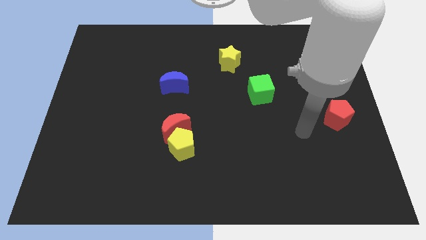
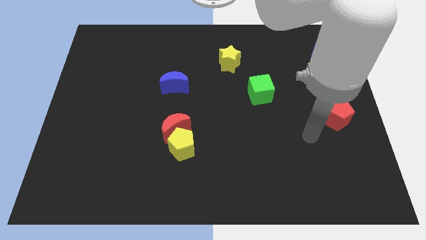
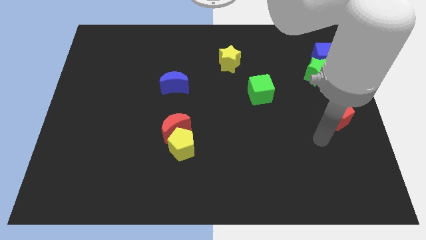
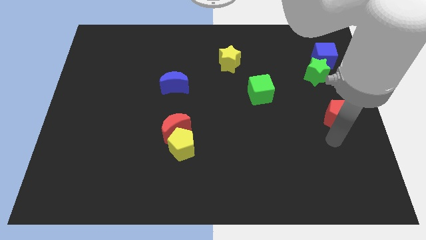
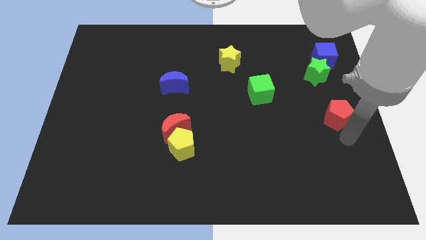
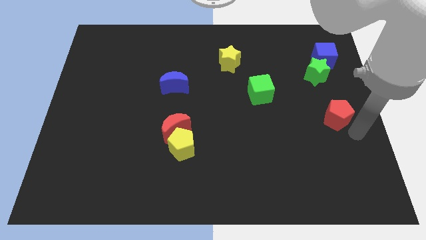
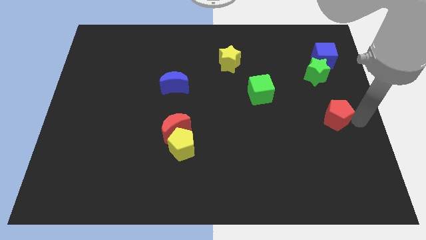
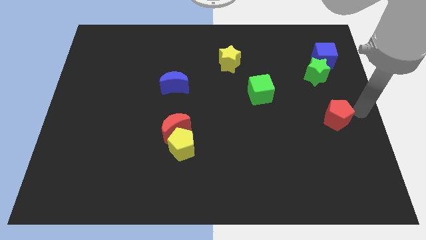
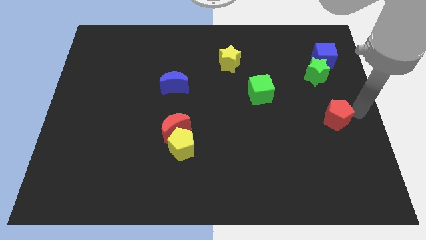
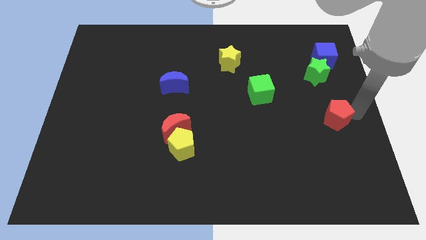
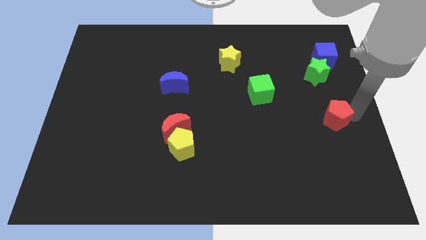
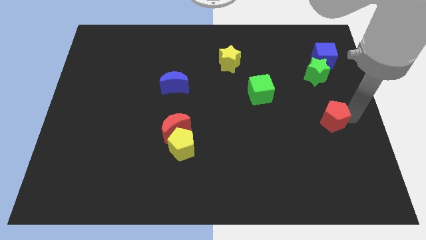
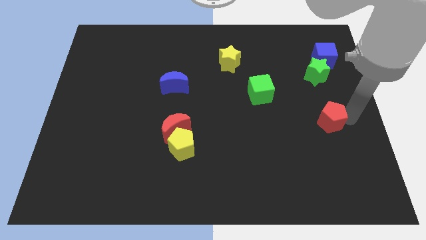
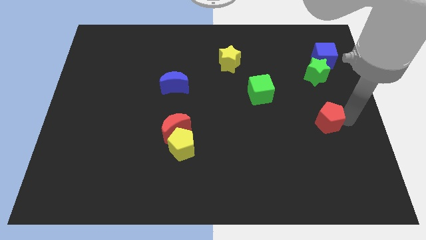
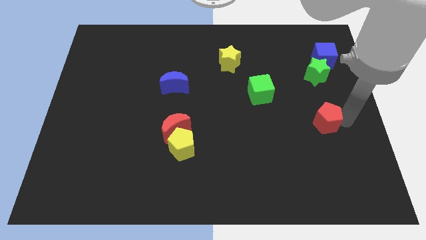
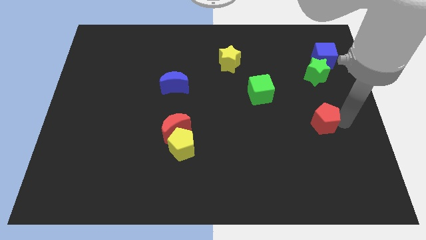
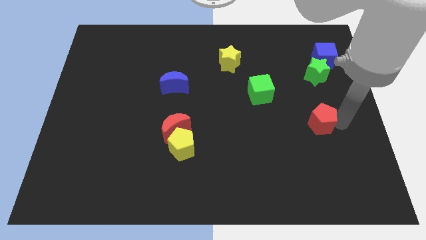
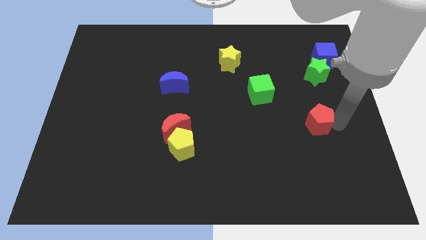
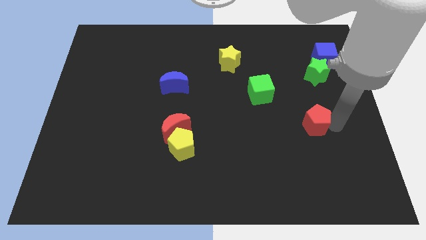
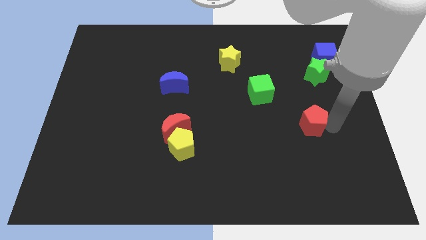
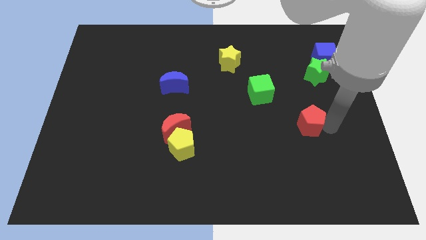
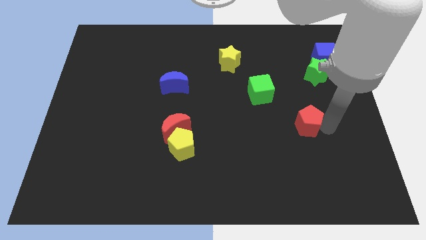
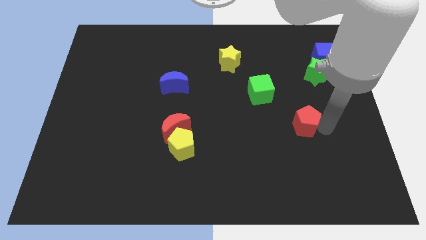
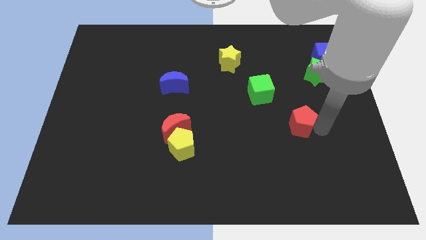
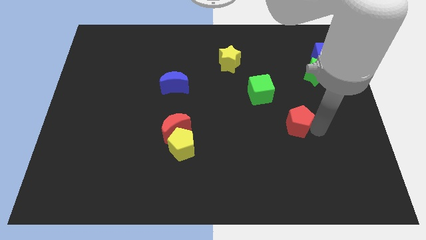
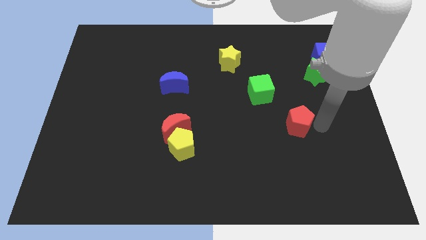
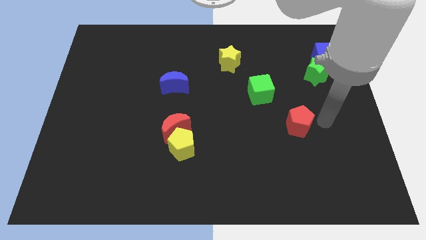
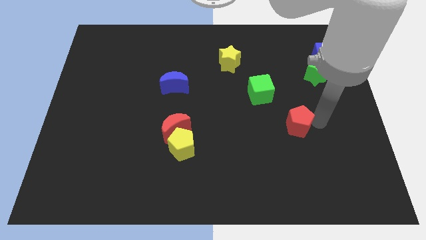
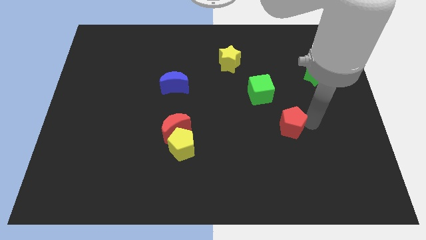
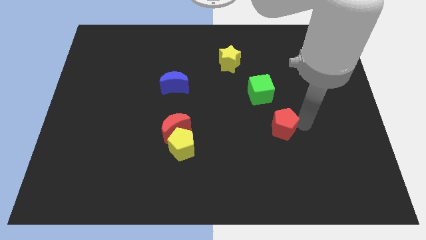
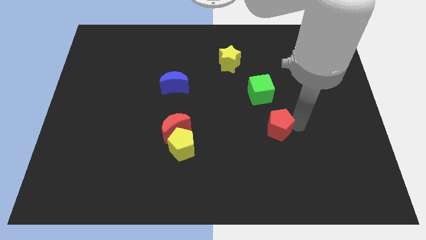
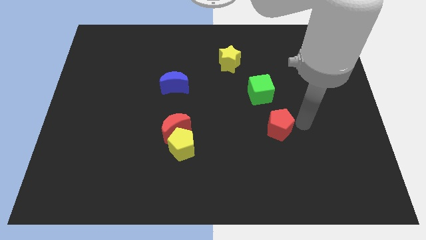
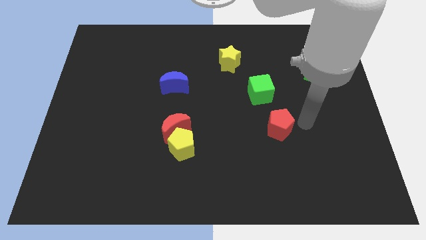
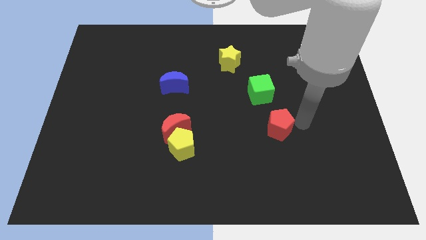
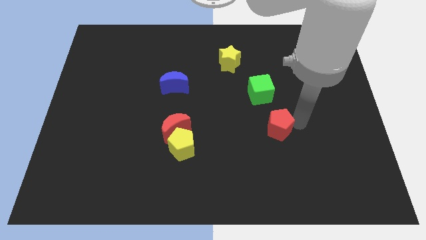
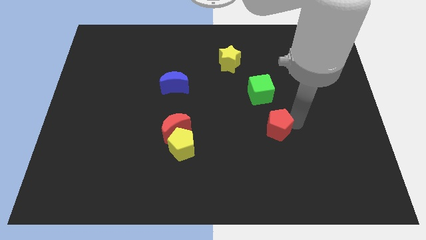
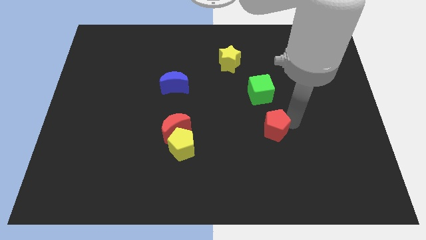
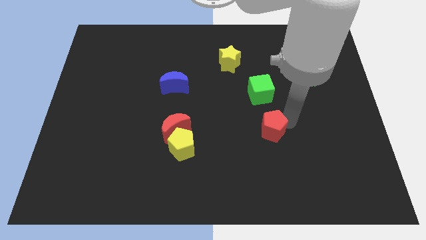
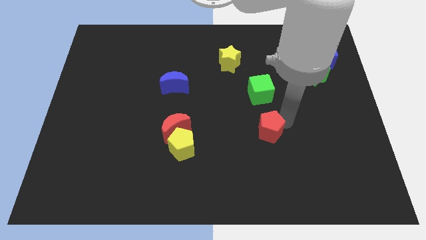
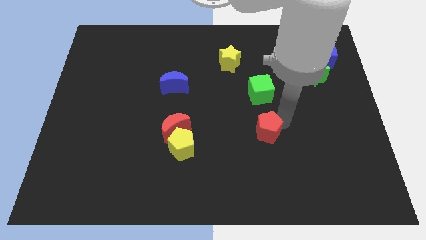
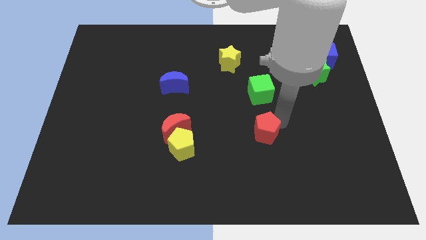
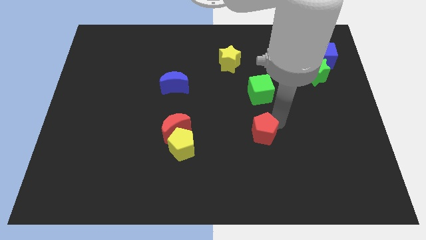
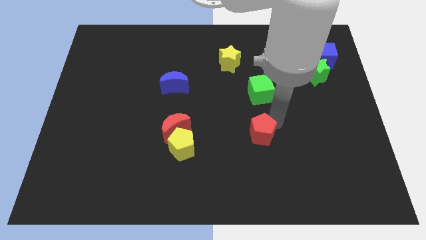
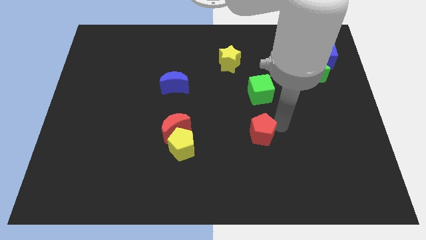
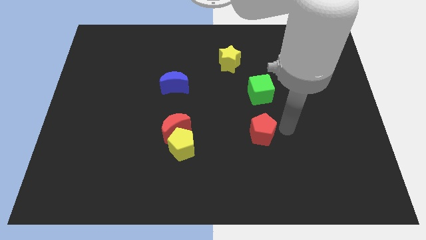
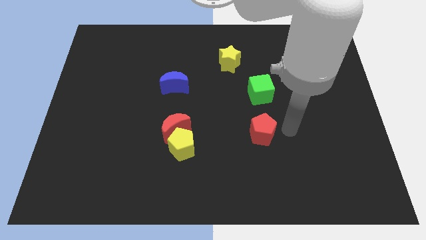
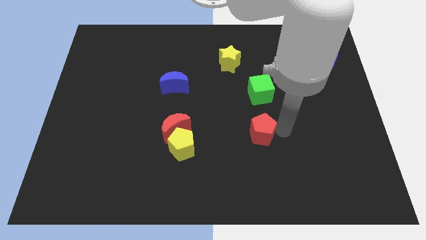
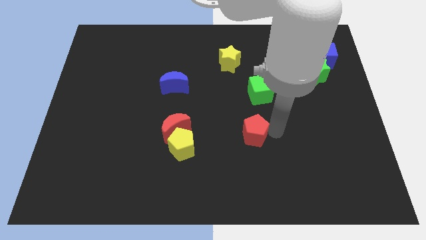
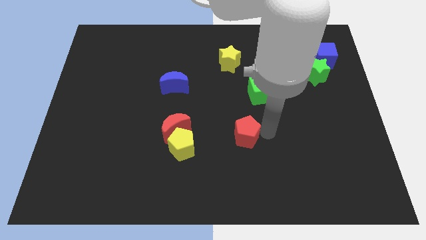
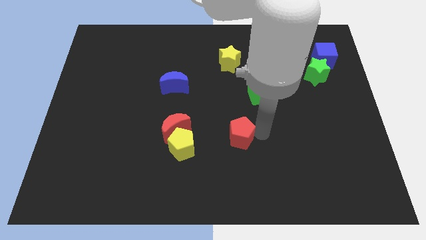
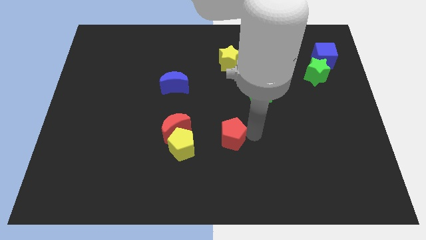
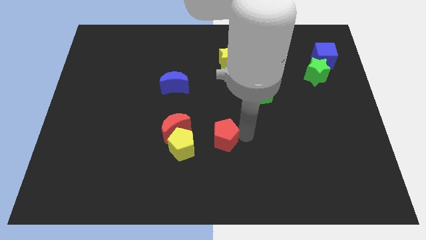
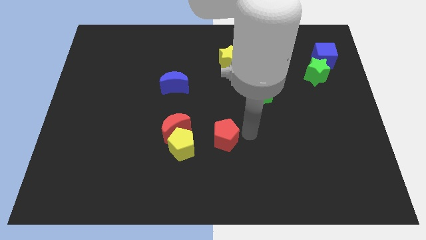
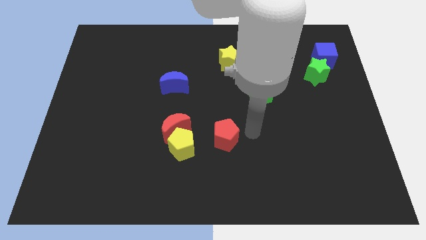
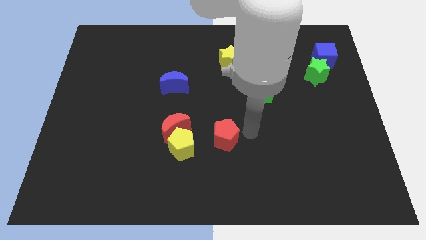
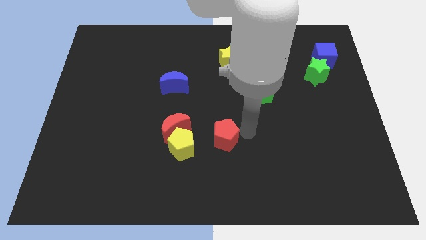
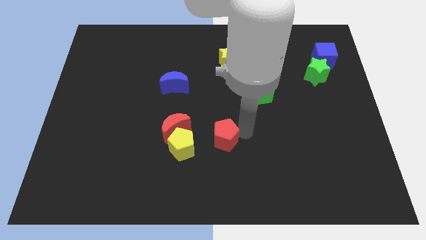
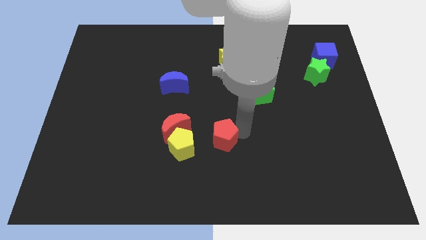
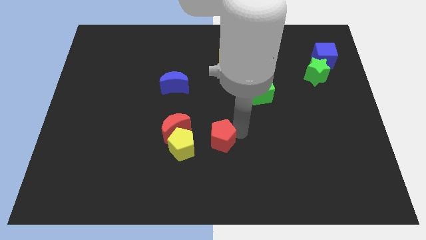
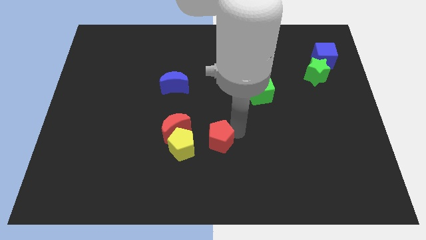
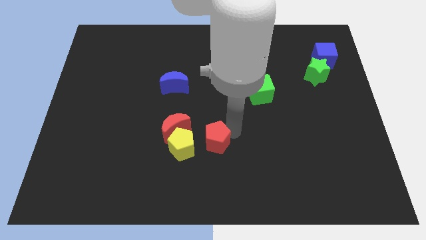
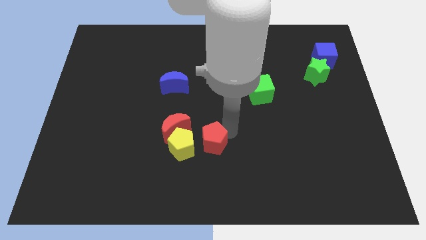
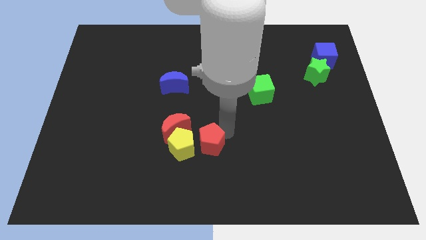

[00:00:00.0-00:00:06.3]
put the red pentagon towards the yellow pentagon

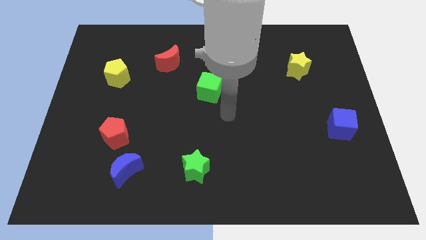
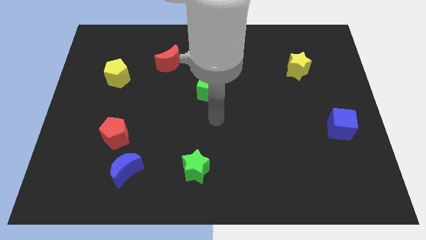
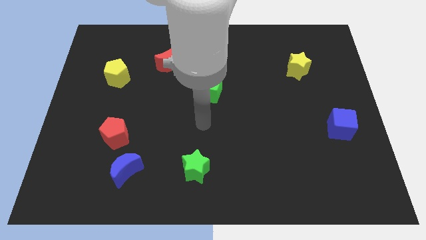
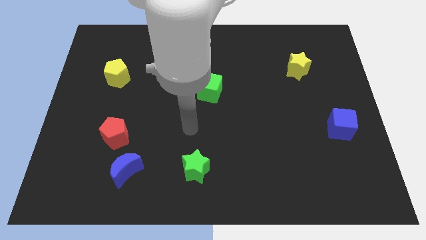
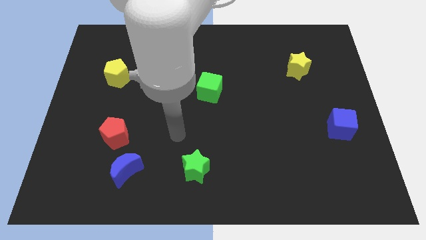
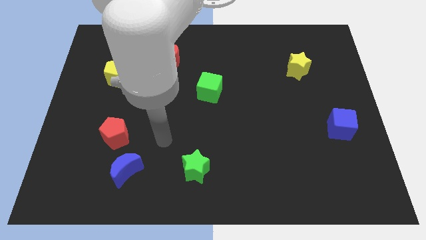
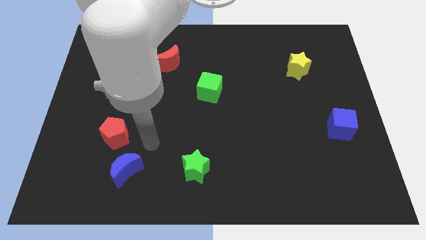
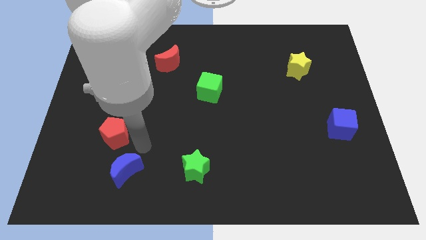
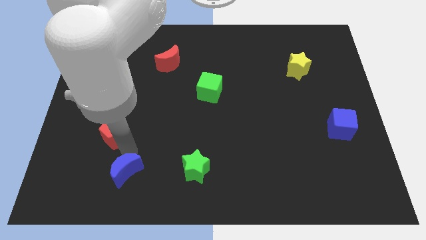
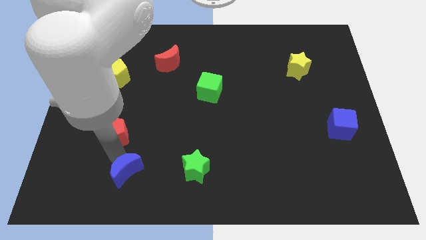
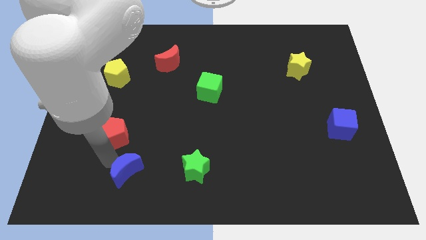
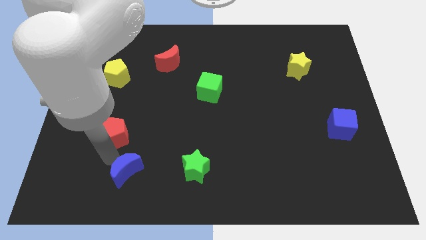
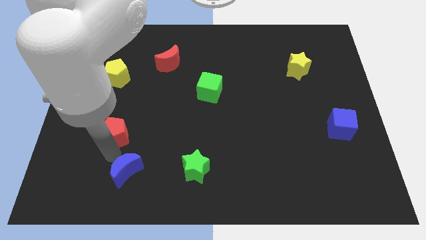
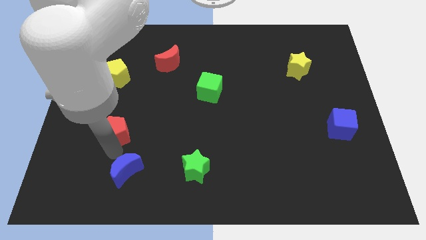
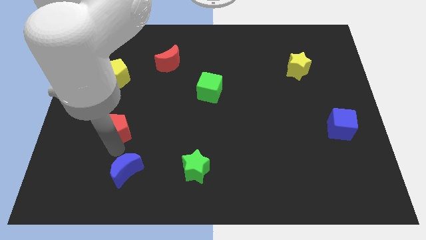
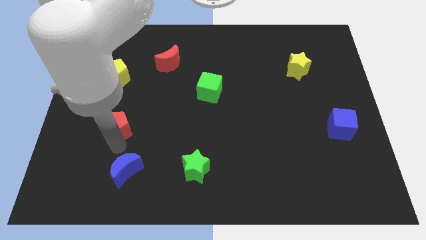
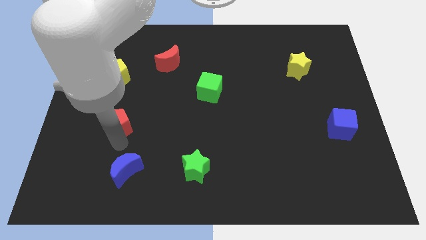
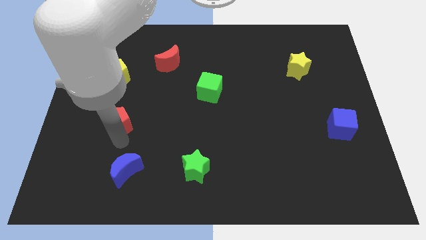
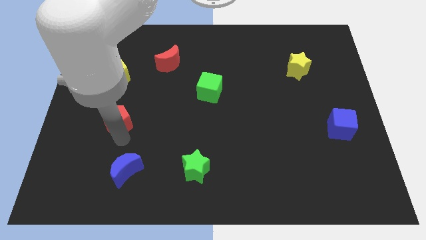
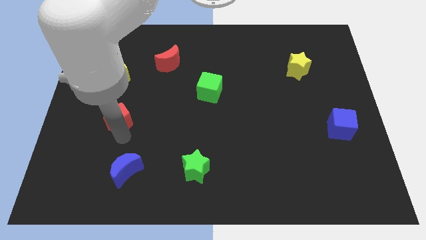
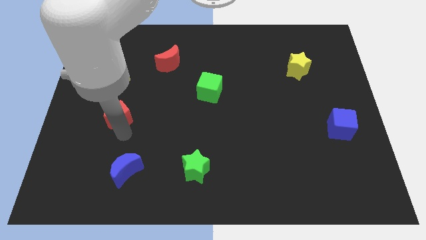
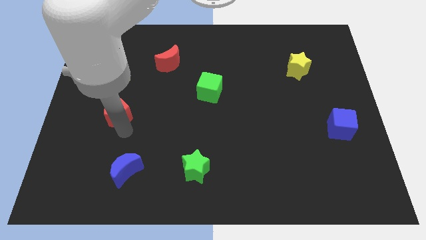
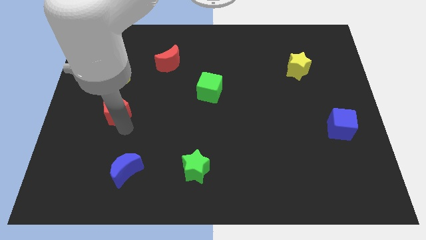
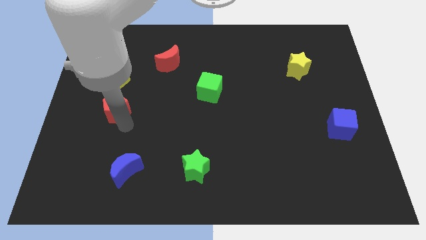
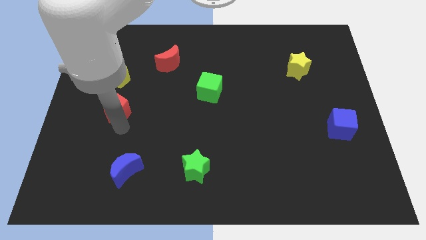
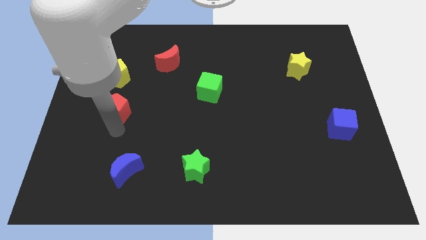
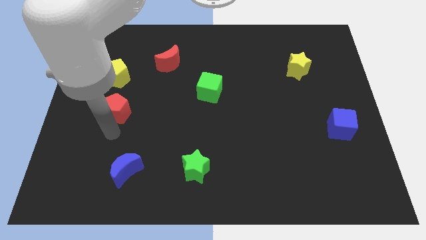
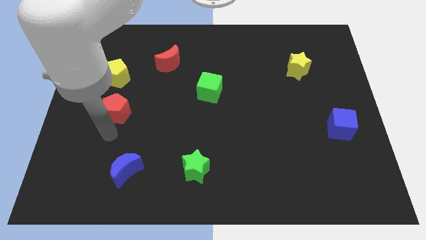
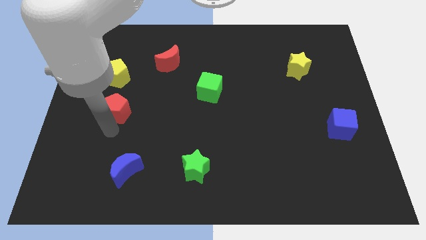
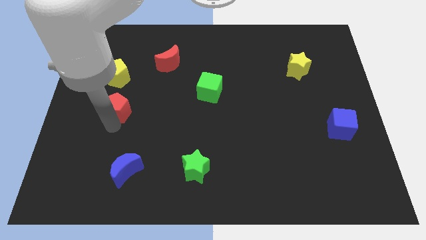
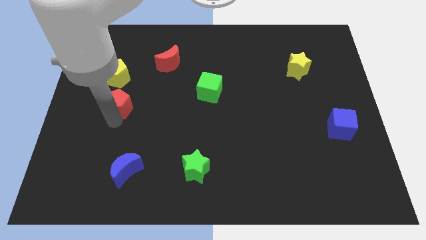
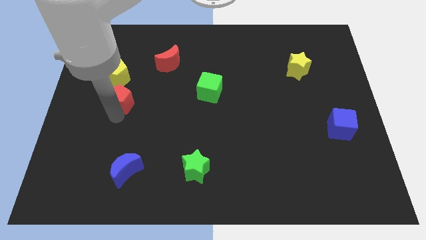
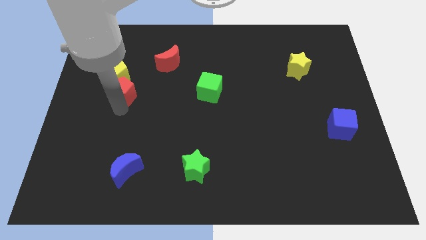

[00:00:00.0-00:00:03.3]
put the red pentagon to the yellow pentagon
